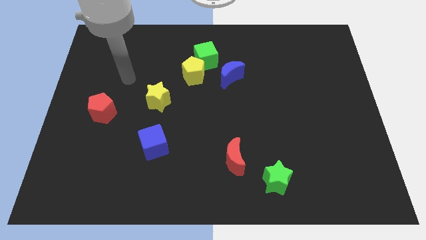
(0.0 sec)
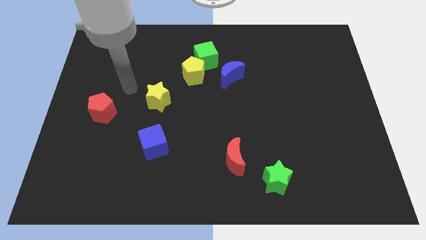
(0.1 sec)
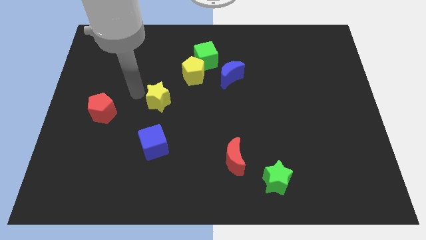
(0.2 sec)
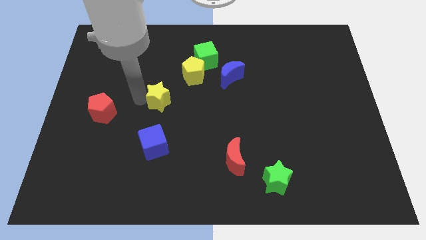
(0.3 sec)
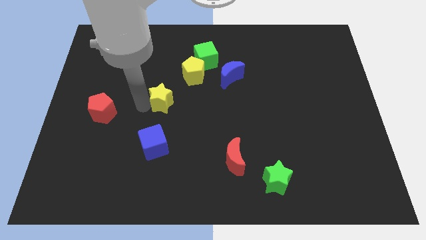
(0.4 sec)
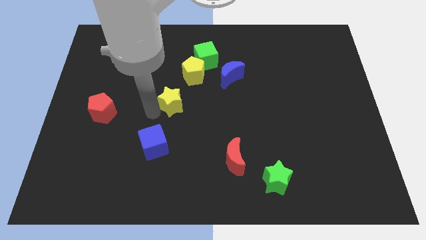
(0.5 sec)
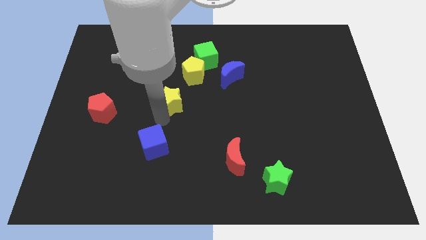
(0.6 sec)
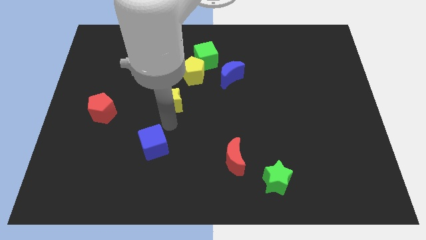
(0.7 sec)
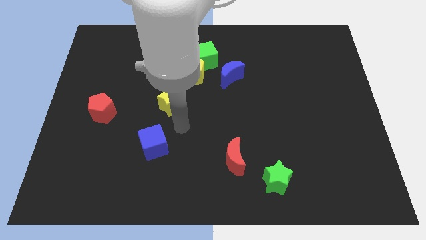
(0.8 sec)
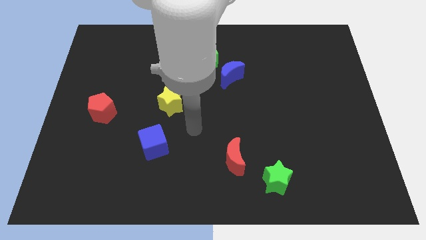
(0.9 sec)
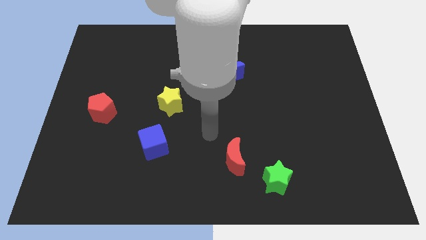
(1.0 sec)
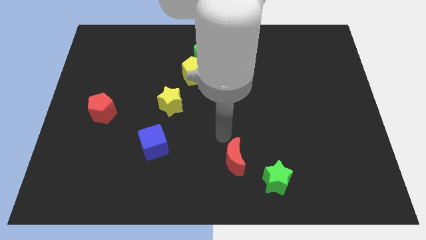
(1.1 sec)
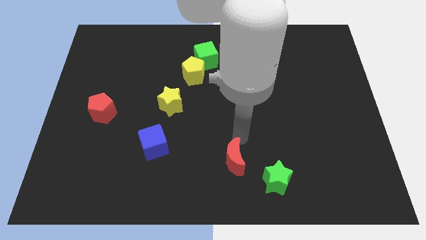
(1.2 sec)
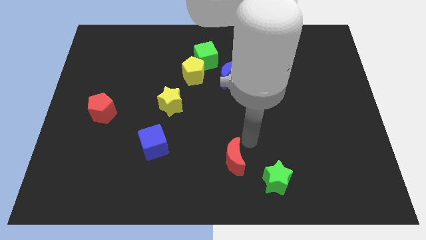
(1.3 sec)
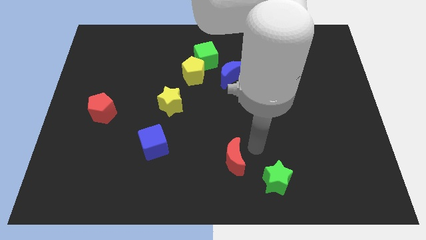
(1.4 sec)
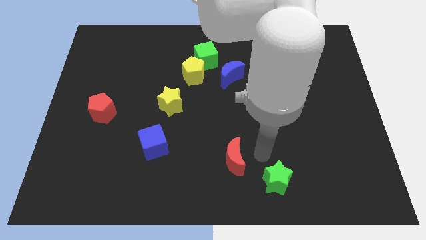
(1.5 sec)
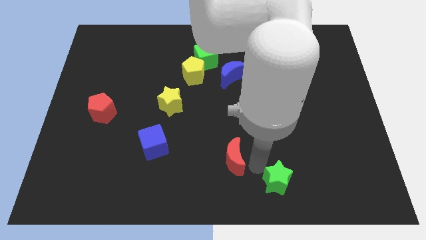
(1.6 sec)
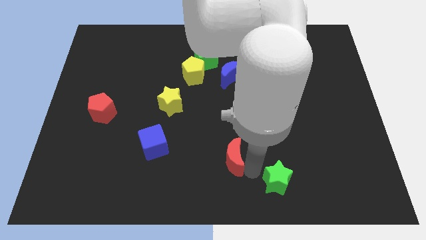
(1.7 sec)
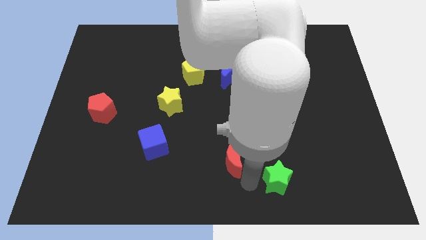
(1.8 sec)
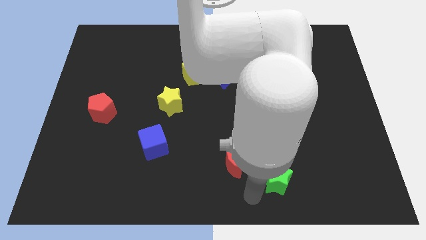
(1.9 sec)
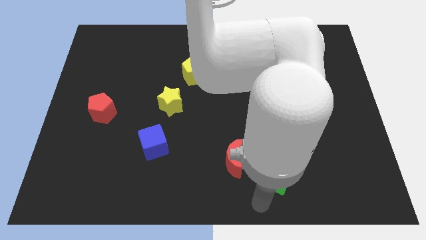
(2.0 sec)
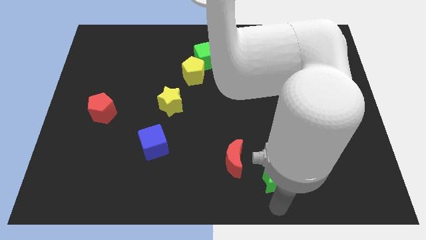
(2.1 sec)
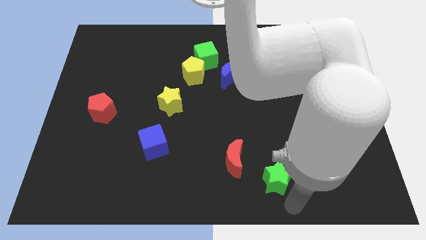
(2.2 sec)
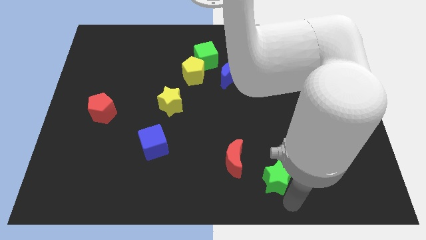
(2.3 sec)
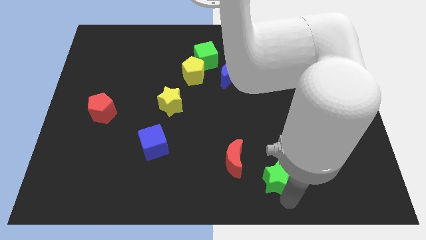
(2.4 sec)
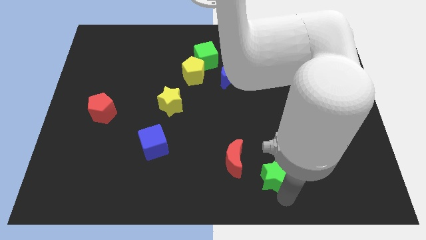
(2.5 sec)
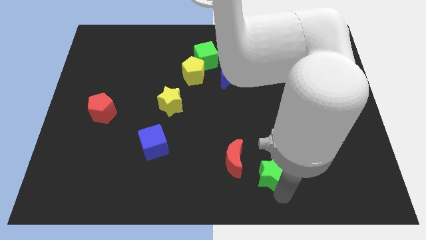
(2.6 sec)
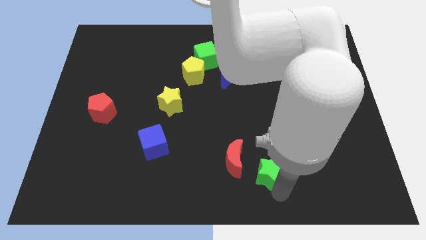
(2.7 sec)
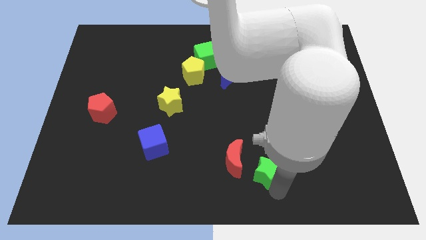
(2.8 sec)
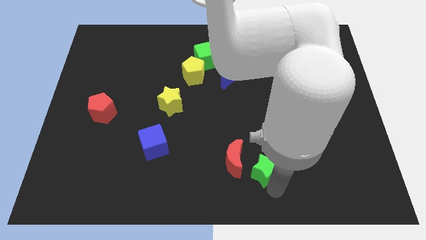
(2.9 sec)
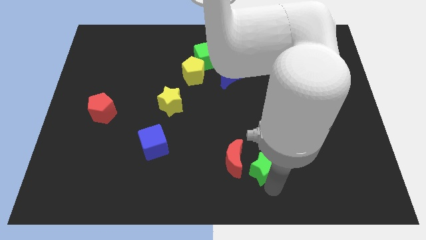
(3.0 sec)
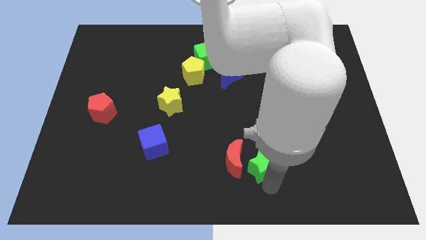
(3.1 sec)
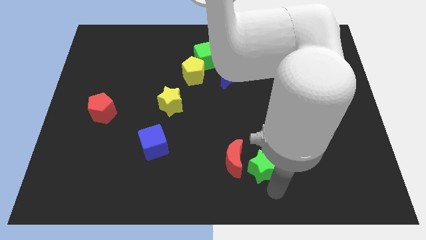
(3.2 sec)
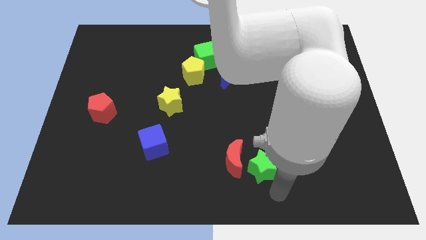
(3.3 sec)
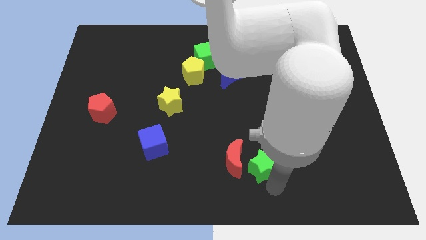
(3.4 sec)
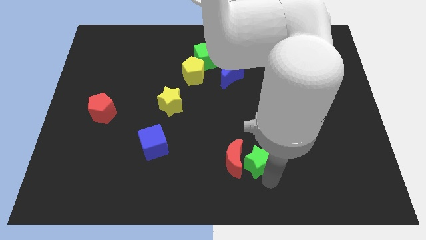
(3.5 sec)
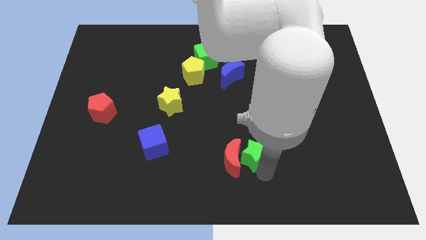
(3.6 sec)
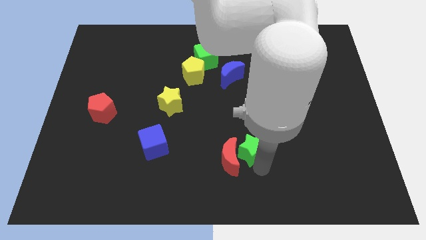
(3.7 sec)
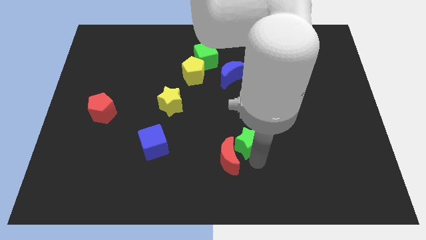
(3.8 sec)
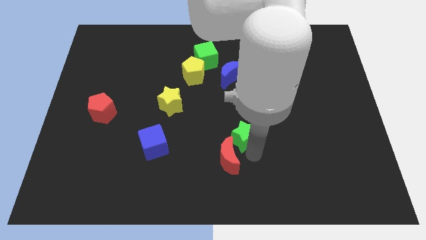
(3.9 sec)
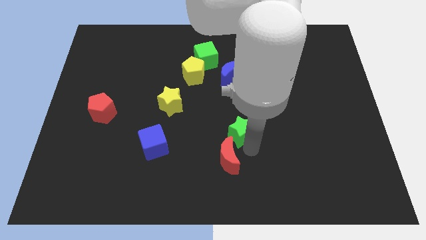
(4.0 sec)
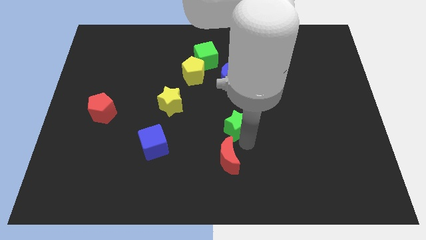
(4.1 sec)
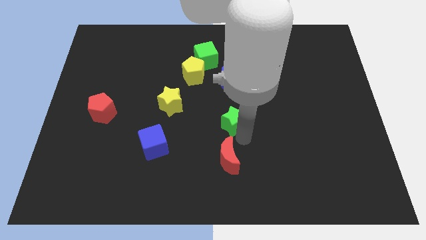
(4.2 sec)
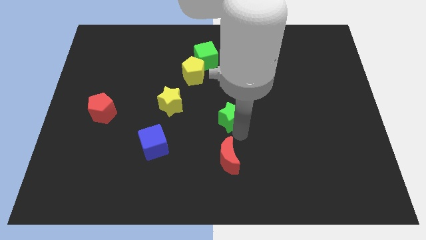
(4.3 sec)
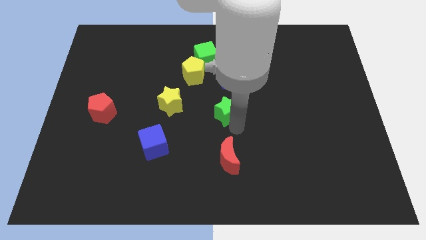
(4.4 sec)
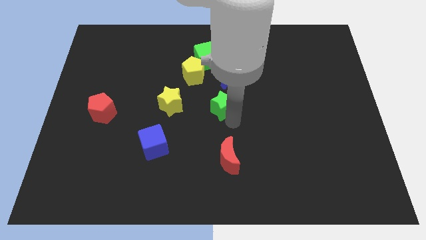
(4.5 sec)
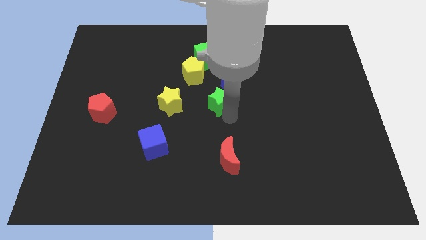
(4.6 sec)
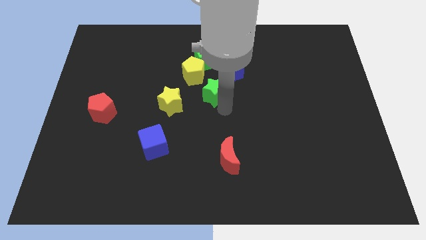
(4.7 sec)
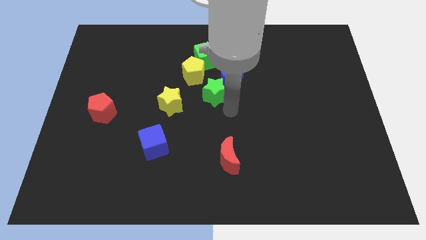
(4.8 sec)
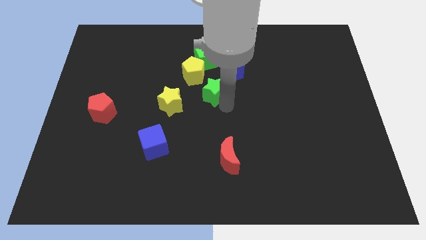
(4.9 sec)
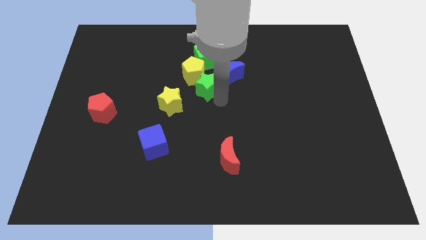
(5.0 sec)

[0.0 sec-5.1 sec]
push the green star to the yellow pentagon

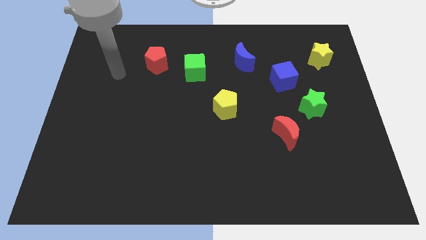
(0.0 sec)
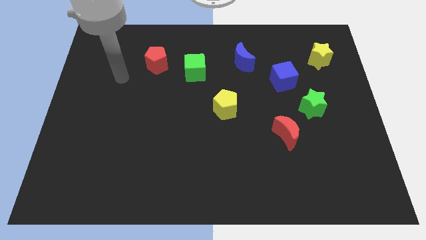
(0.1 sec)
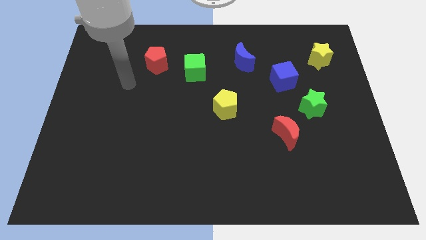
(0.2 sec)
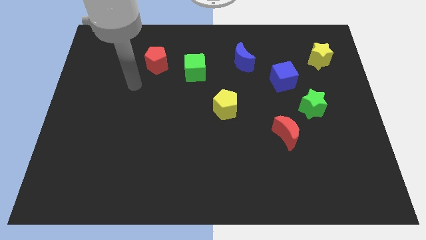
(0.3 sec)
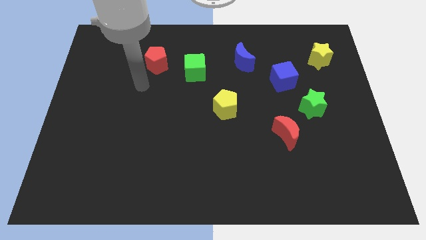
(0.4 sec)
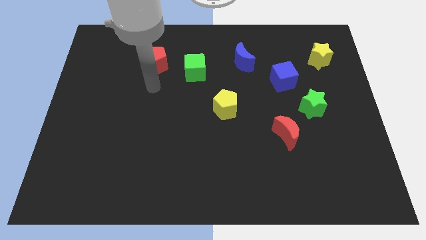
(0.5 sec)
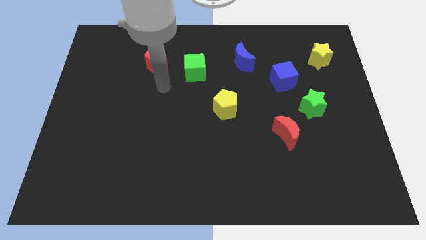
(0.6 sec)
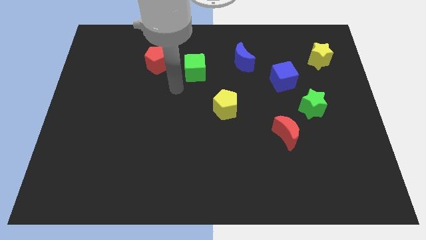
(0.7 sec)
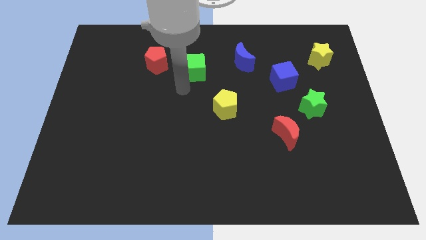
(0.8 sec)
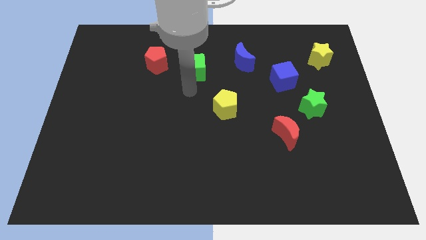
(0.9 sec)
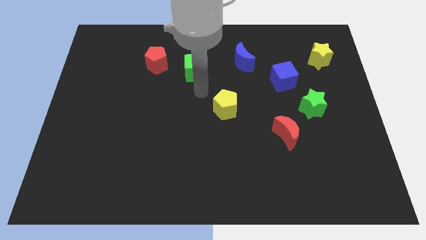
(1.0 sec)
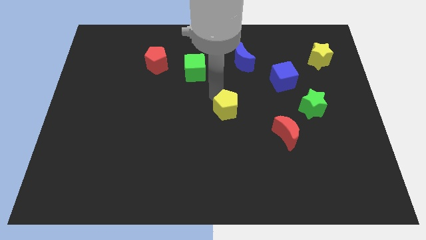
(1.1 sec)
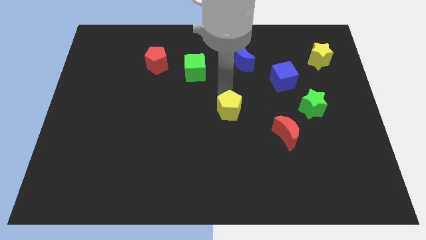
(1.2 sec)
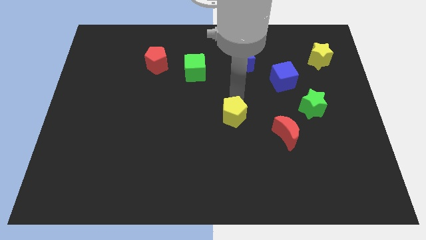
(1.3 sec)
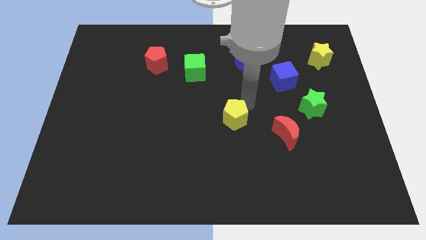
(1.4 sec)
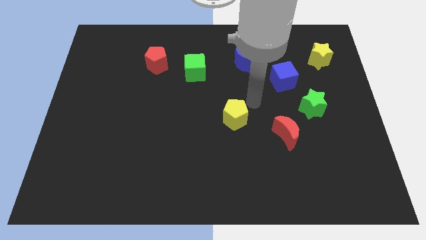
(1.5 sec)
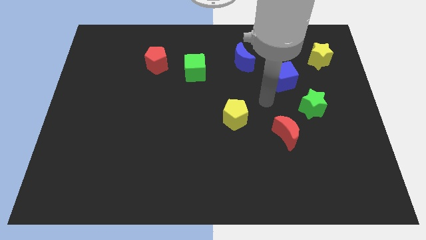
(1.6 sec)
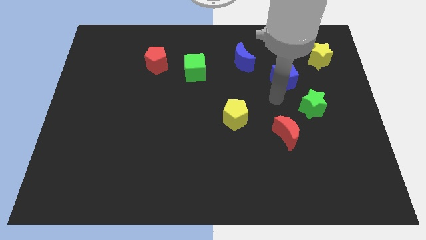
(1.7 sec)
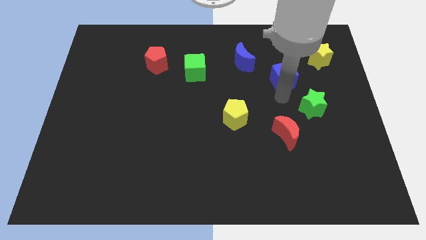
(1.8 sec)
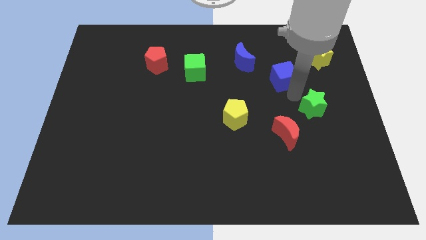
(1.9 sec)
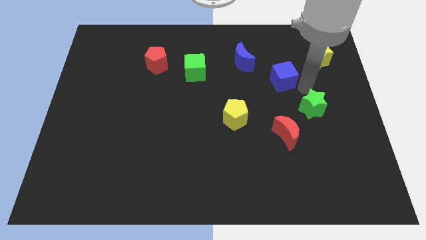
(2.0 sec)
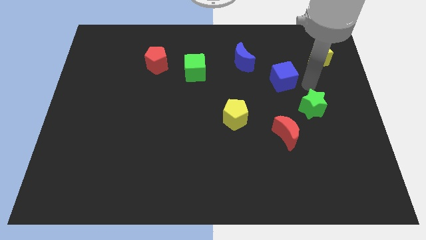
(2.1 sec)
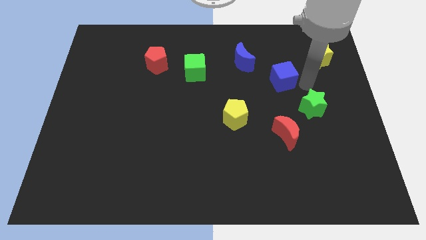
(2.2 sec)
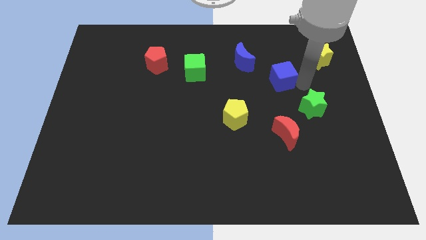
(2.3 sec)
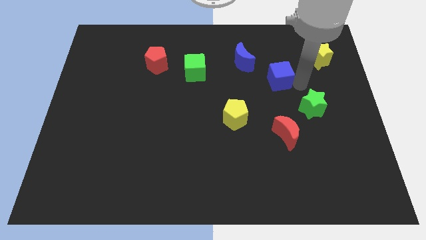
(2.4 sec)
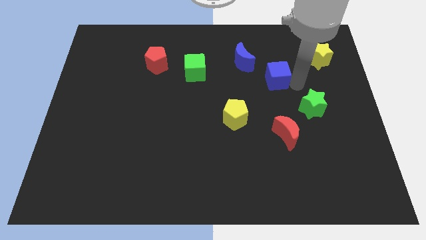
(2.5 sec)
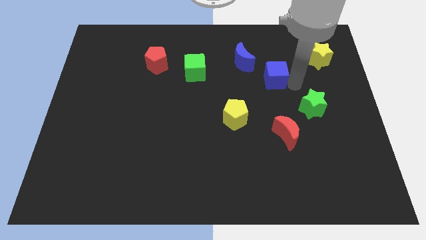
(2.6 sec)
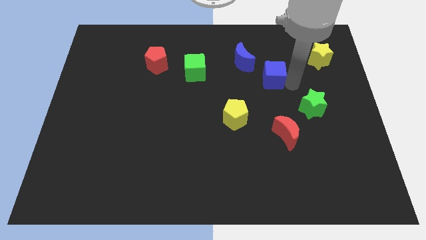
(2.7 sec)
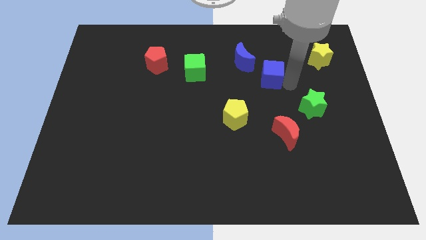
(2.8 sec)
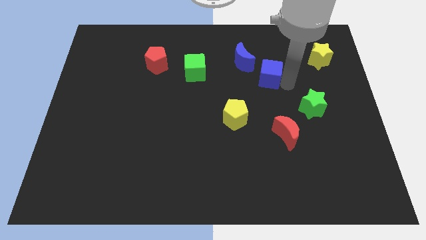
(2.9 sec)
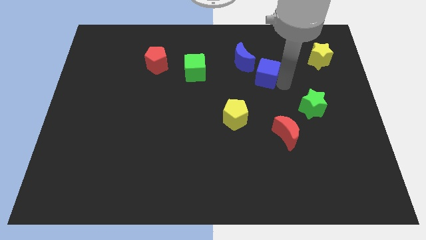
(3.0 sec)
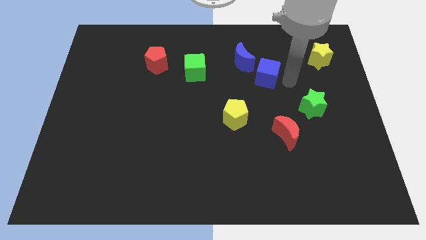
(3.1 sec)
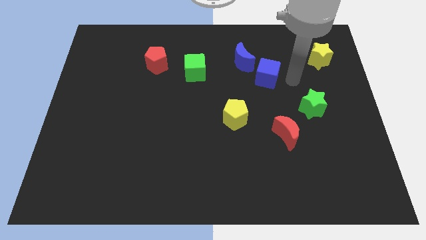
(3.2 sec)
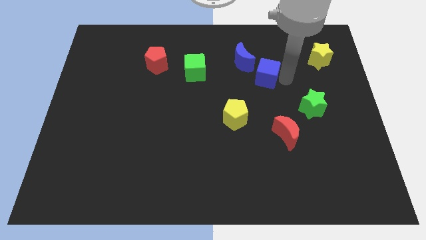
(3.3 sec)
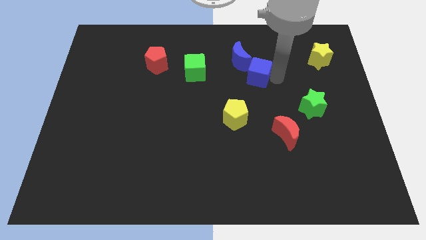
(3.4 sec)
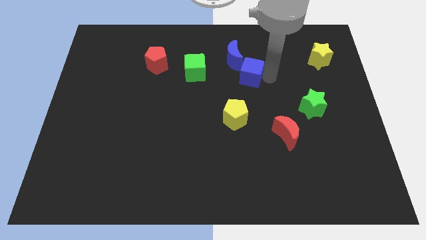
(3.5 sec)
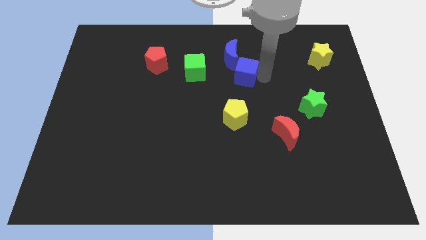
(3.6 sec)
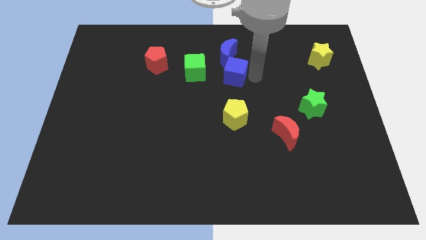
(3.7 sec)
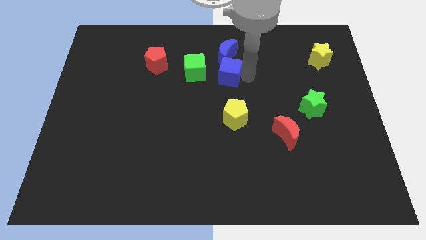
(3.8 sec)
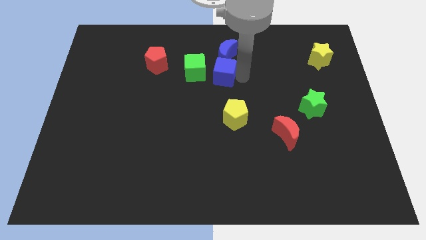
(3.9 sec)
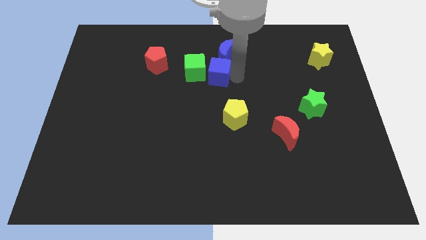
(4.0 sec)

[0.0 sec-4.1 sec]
put the blue cube next to the green cube
